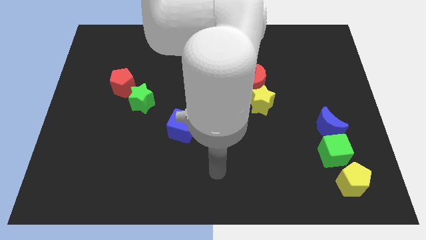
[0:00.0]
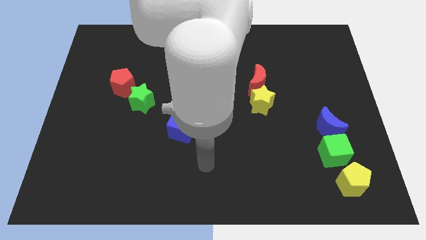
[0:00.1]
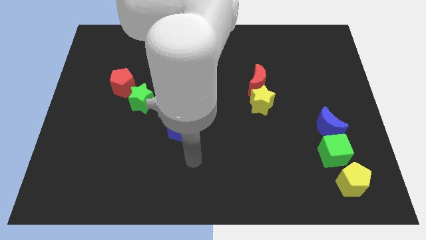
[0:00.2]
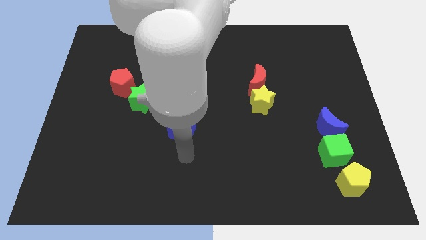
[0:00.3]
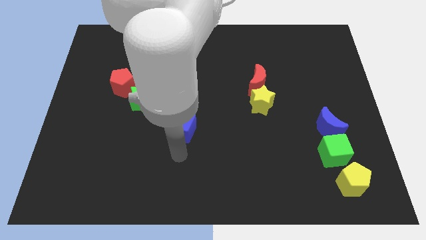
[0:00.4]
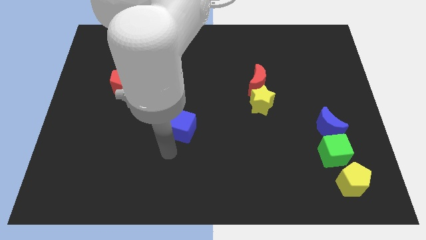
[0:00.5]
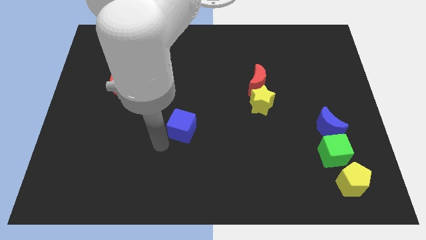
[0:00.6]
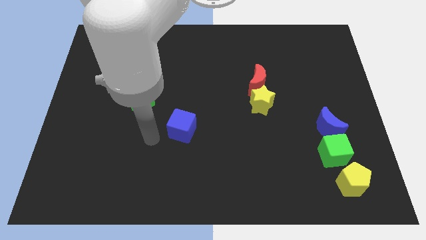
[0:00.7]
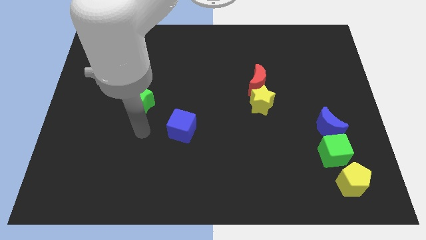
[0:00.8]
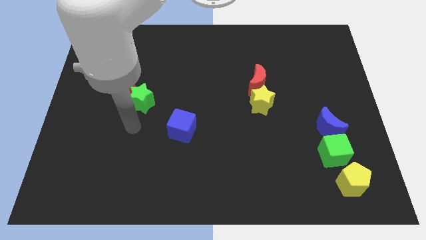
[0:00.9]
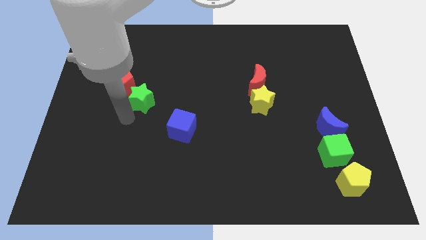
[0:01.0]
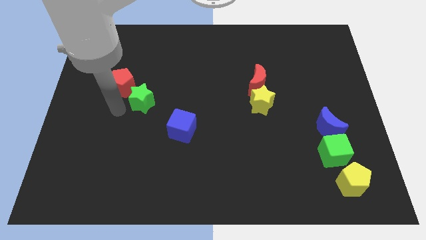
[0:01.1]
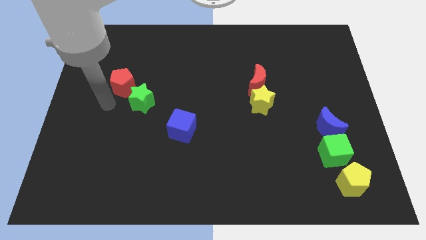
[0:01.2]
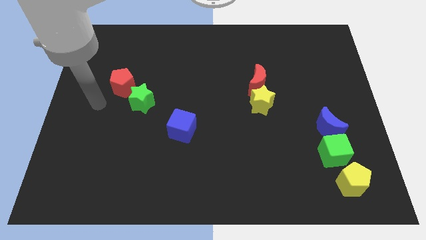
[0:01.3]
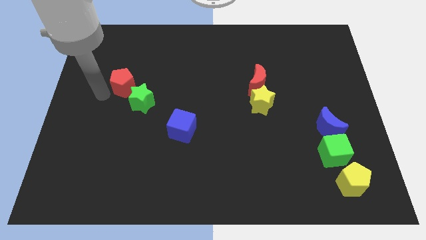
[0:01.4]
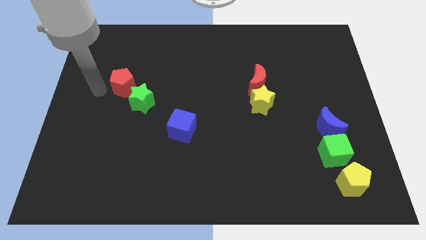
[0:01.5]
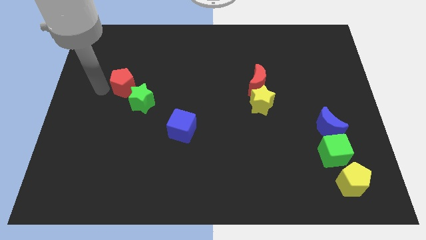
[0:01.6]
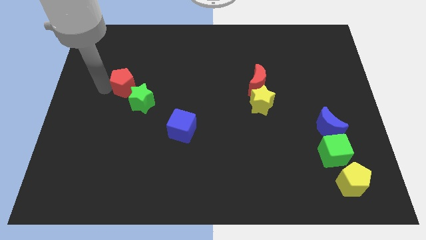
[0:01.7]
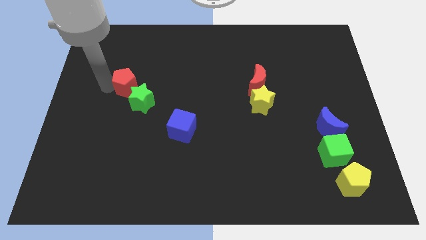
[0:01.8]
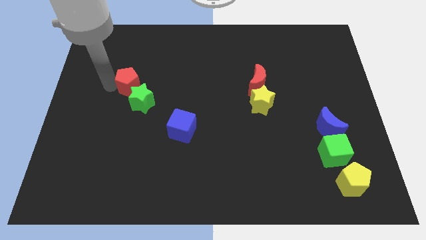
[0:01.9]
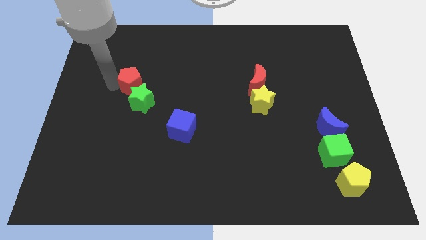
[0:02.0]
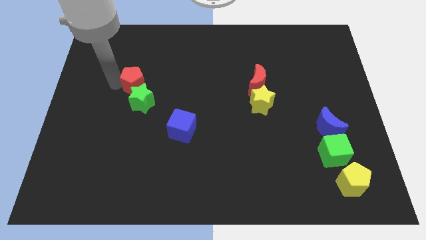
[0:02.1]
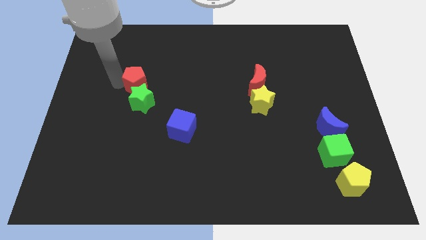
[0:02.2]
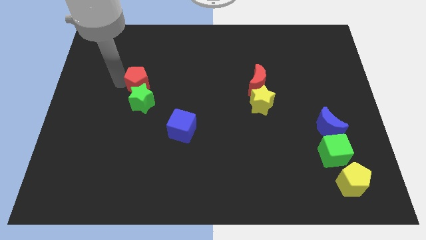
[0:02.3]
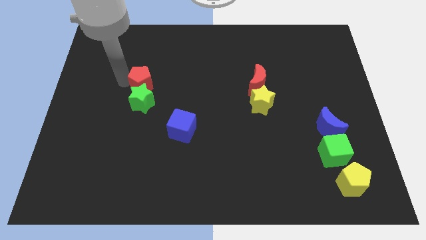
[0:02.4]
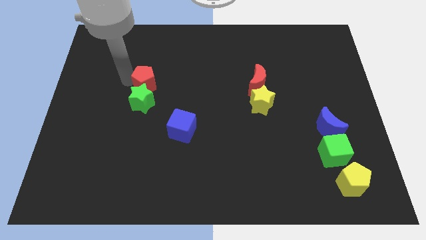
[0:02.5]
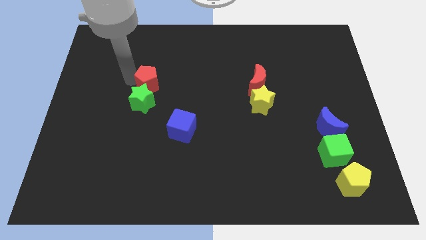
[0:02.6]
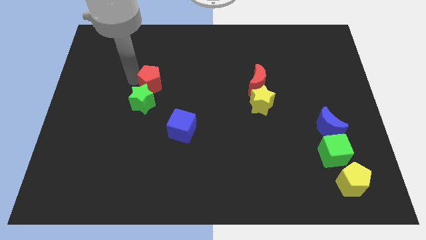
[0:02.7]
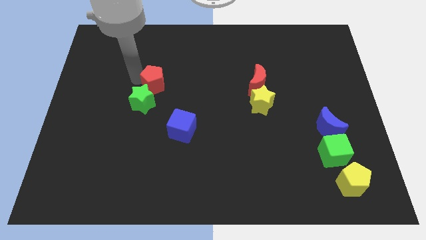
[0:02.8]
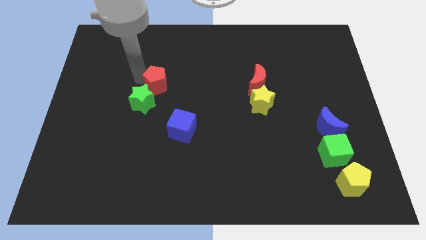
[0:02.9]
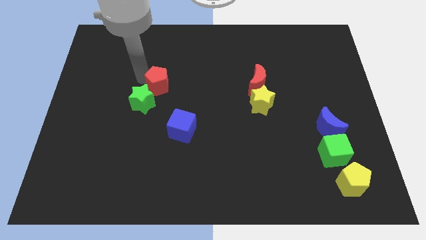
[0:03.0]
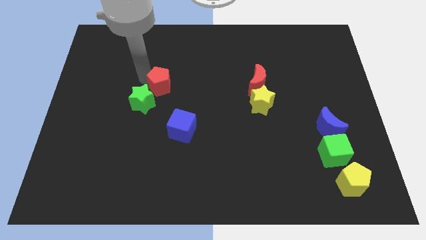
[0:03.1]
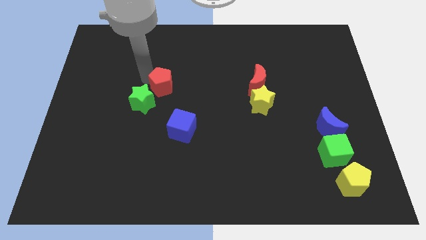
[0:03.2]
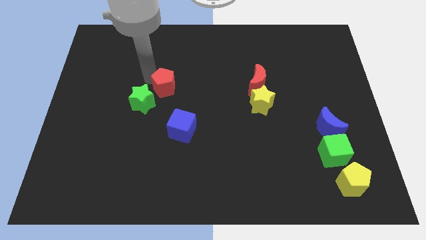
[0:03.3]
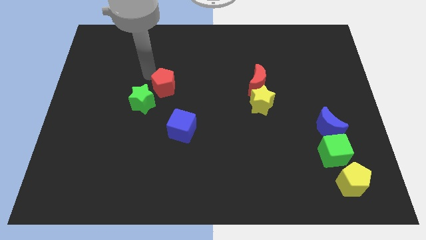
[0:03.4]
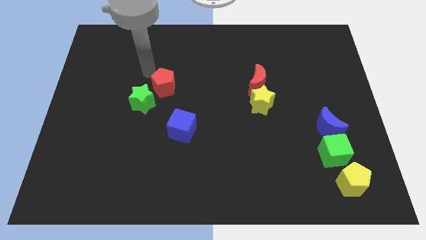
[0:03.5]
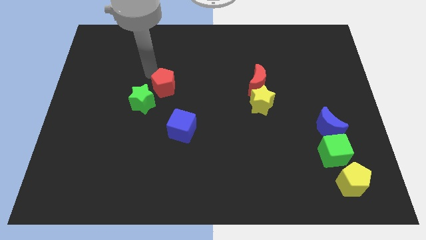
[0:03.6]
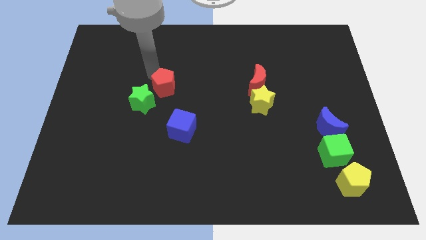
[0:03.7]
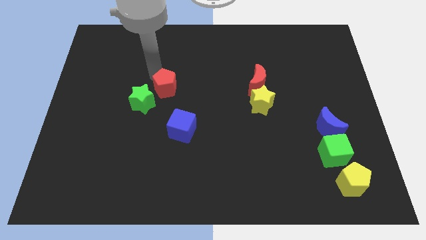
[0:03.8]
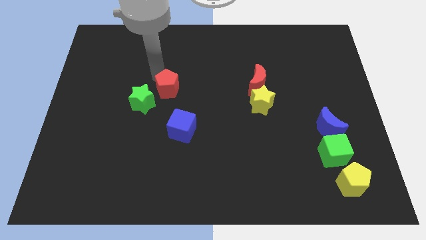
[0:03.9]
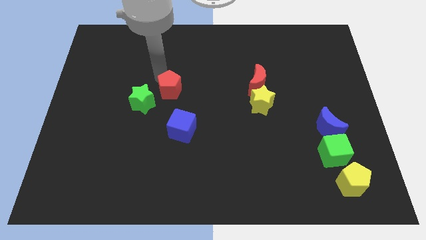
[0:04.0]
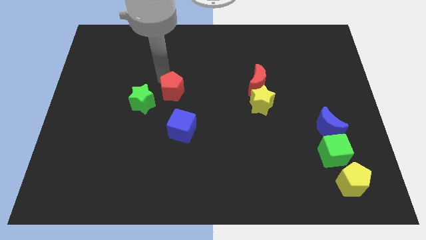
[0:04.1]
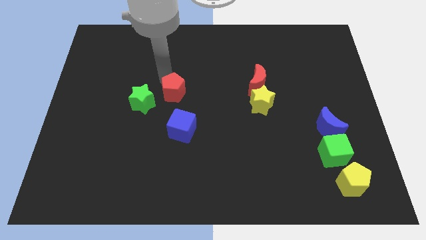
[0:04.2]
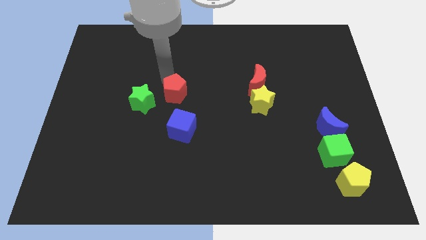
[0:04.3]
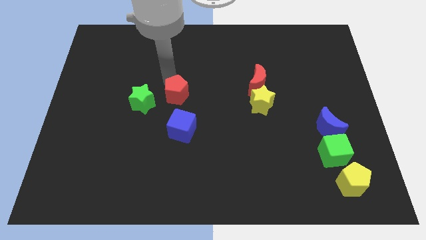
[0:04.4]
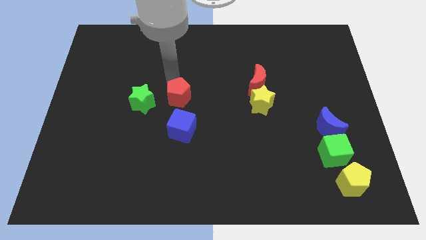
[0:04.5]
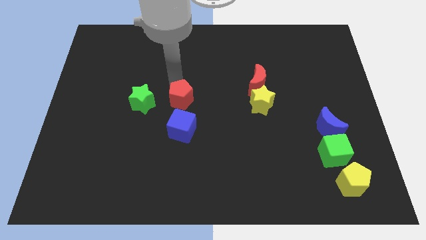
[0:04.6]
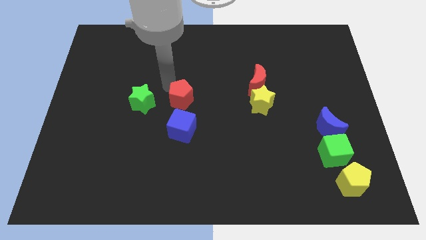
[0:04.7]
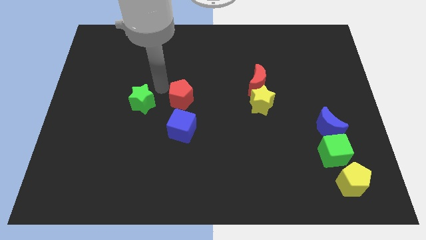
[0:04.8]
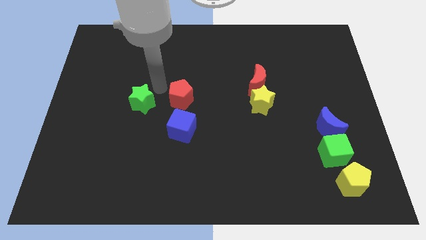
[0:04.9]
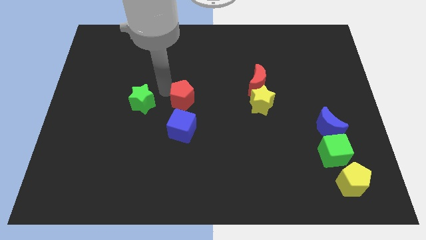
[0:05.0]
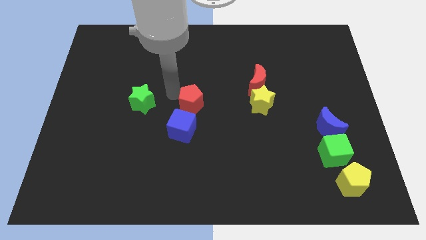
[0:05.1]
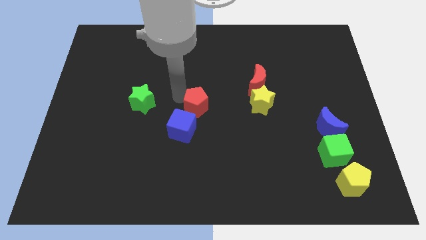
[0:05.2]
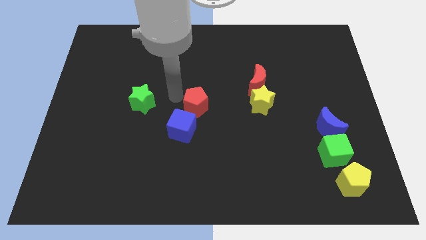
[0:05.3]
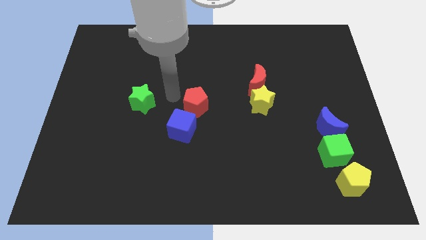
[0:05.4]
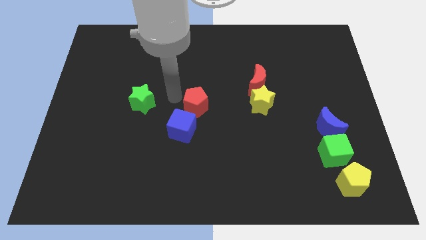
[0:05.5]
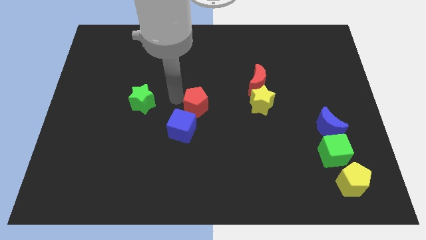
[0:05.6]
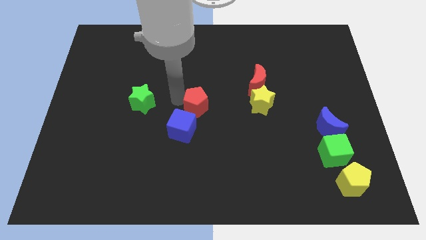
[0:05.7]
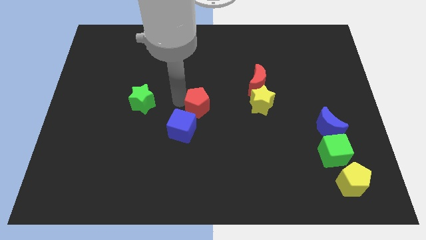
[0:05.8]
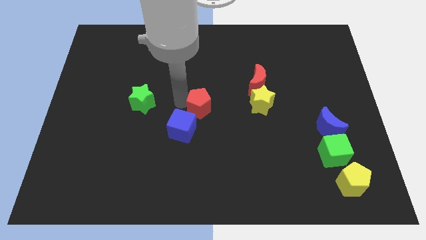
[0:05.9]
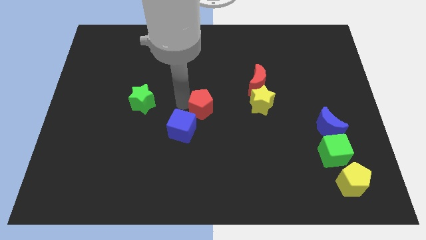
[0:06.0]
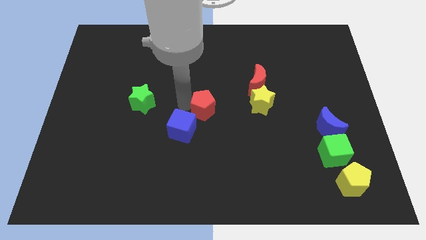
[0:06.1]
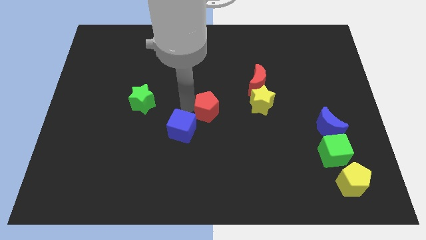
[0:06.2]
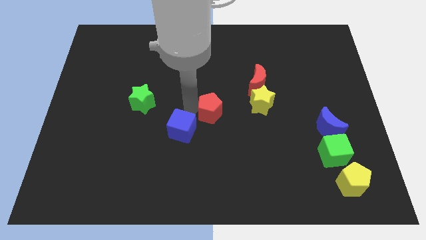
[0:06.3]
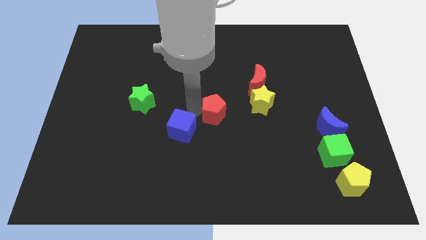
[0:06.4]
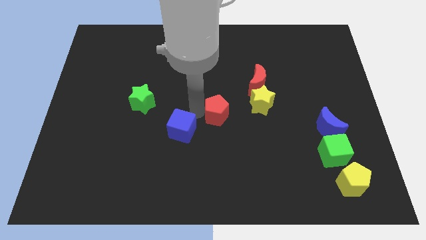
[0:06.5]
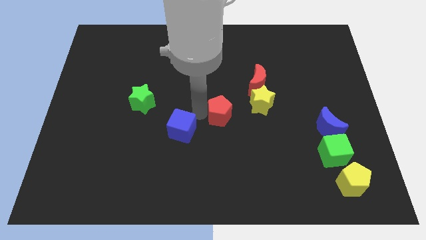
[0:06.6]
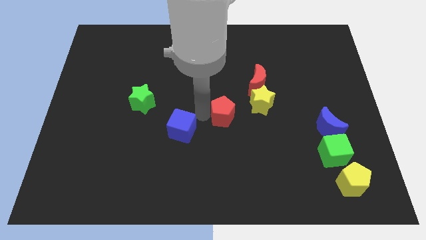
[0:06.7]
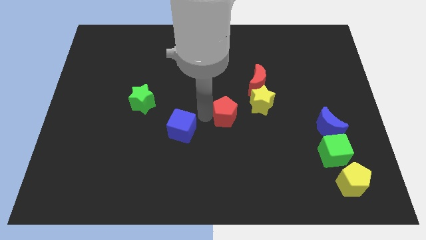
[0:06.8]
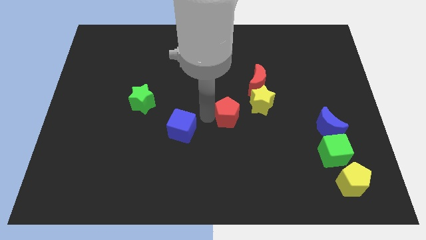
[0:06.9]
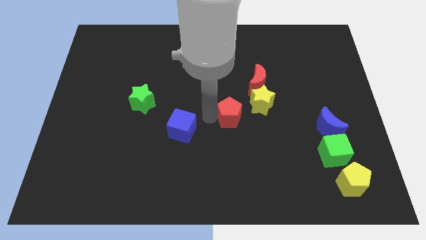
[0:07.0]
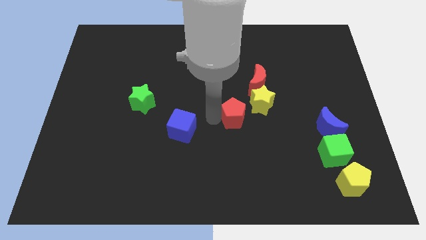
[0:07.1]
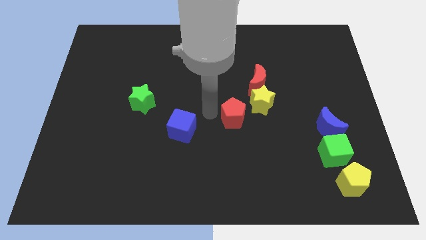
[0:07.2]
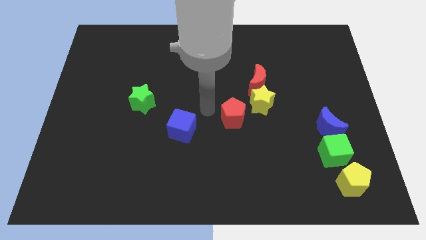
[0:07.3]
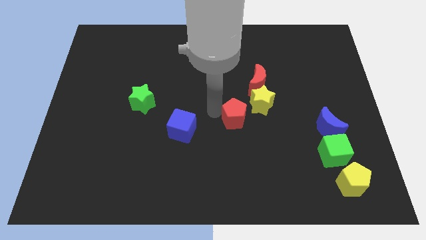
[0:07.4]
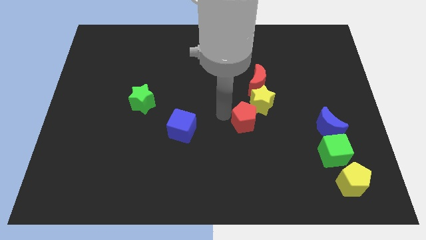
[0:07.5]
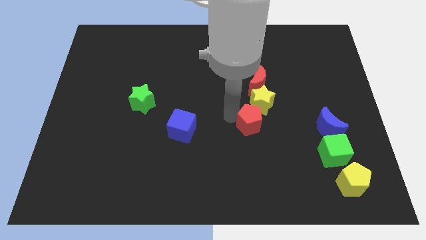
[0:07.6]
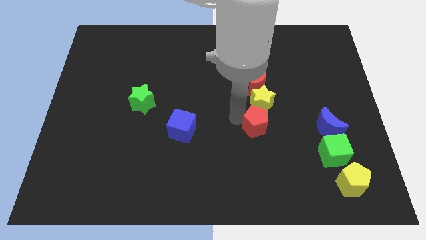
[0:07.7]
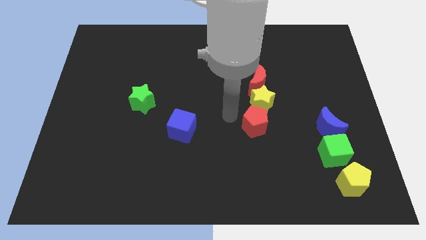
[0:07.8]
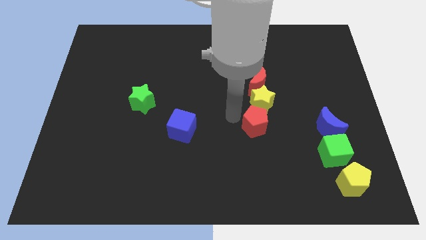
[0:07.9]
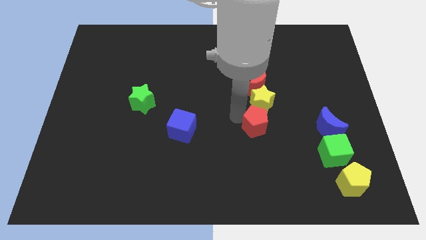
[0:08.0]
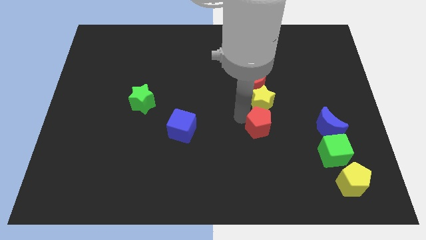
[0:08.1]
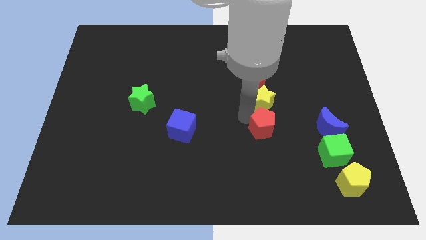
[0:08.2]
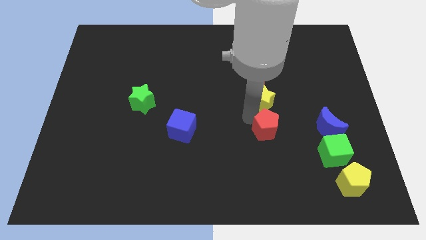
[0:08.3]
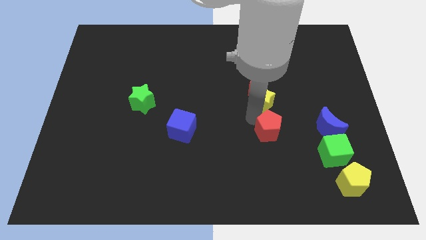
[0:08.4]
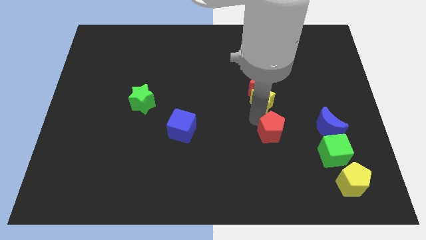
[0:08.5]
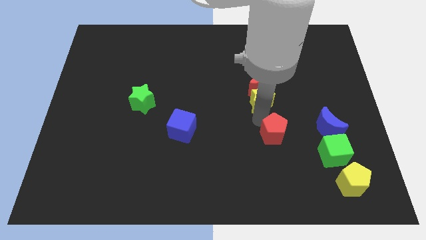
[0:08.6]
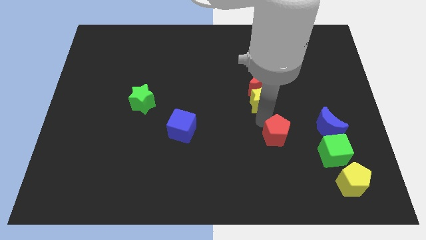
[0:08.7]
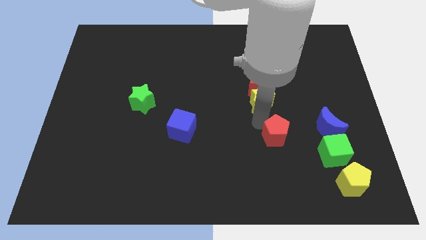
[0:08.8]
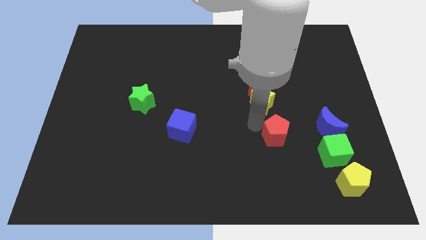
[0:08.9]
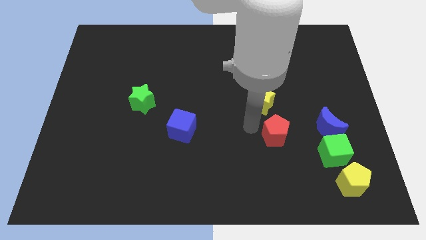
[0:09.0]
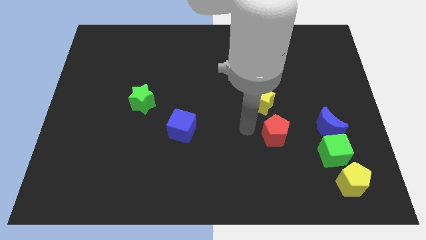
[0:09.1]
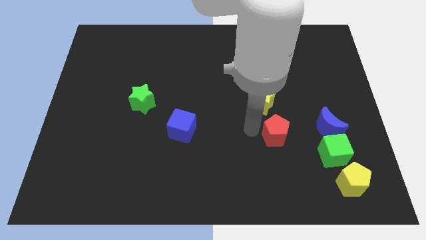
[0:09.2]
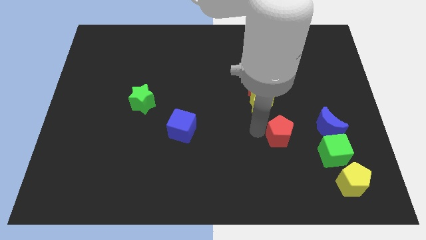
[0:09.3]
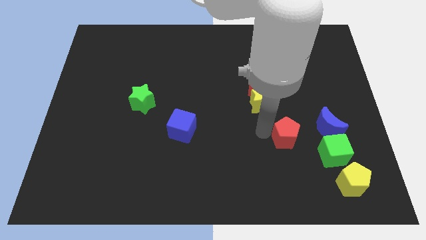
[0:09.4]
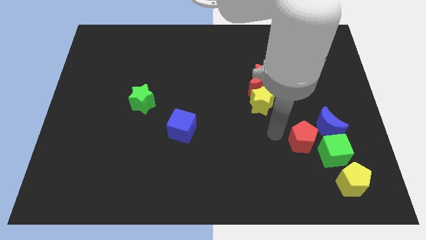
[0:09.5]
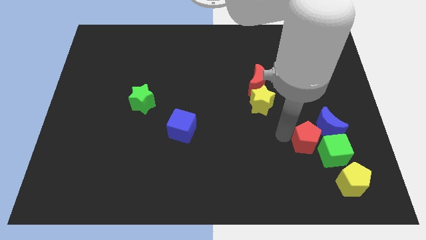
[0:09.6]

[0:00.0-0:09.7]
push the red pentagon close to the green cube
